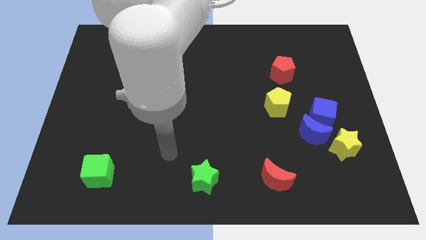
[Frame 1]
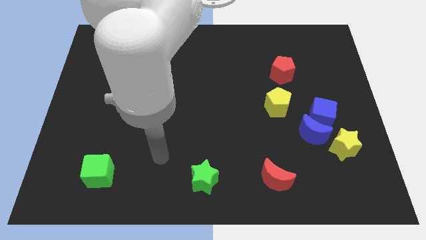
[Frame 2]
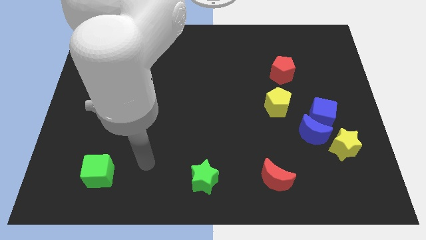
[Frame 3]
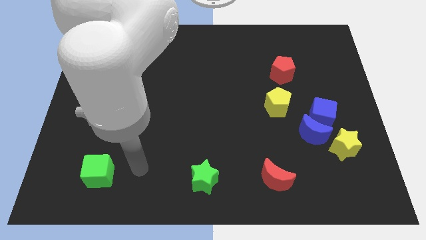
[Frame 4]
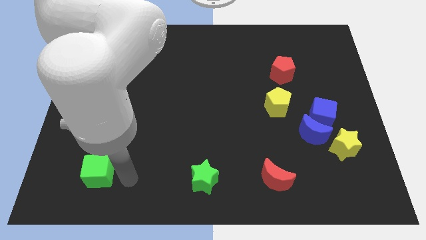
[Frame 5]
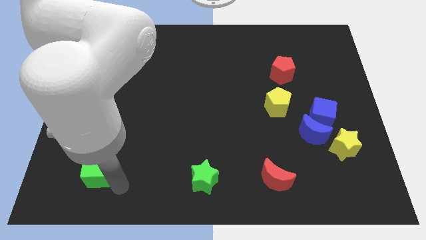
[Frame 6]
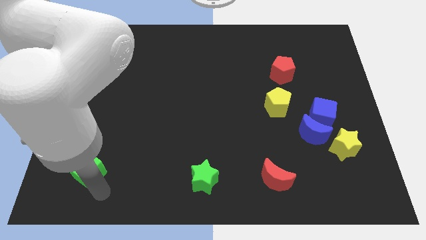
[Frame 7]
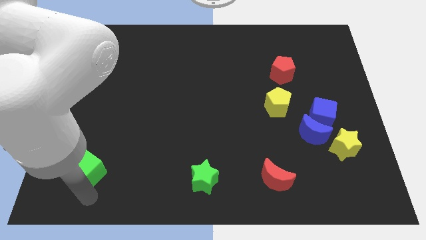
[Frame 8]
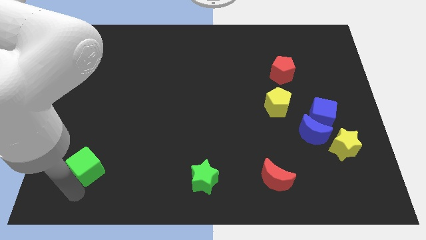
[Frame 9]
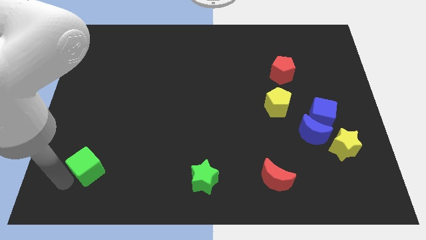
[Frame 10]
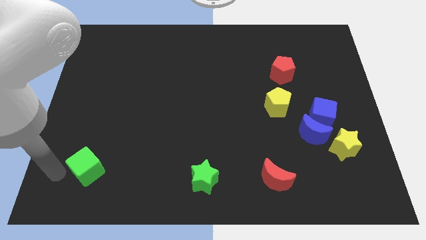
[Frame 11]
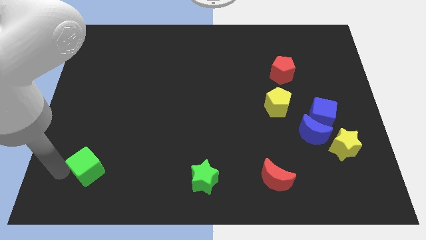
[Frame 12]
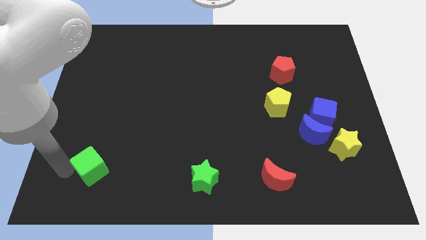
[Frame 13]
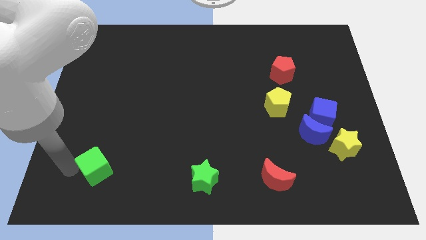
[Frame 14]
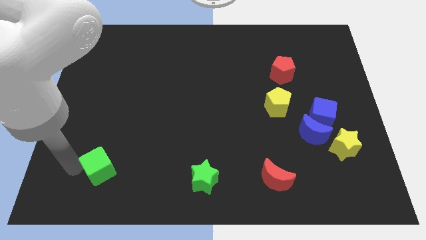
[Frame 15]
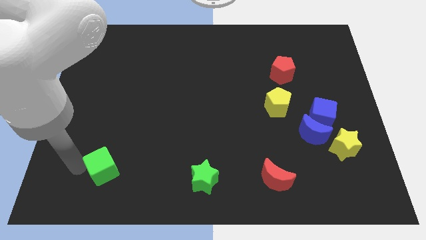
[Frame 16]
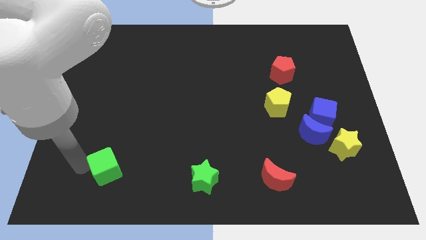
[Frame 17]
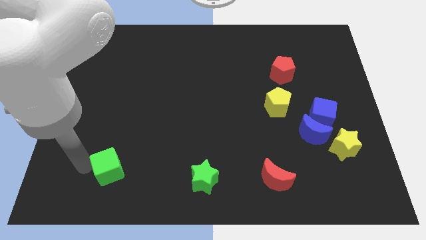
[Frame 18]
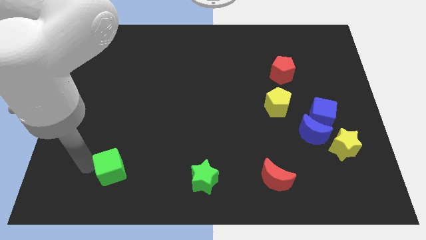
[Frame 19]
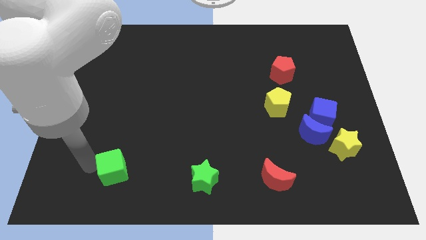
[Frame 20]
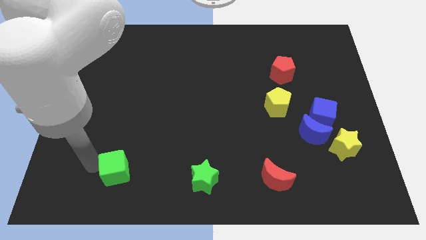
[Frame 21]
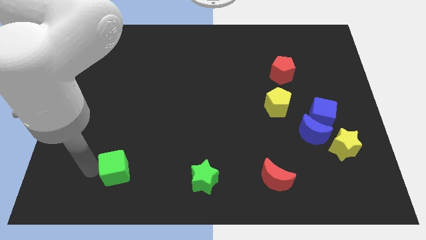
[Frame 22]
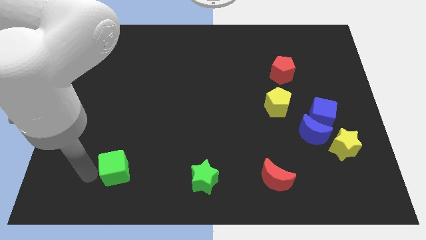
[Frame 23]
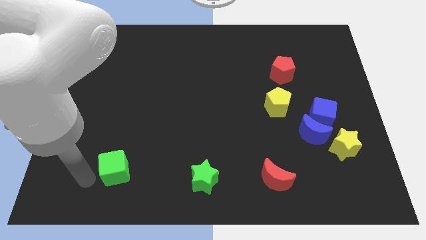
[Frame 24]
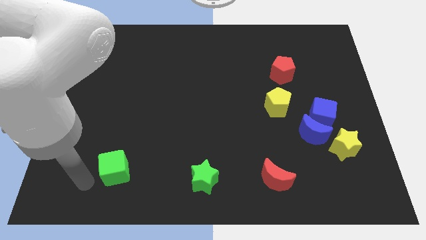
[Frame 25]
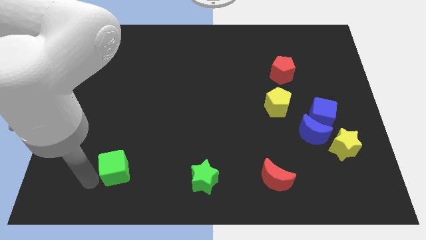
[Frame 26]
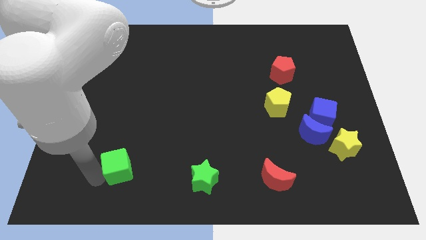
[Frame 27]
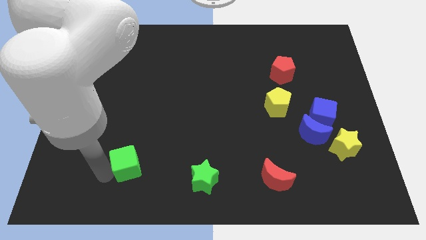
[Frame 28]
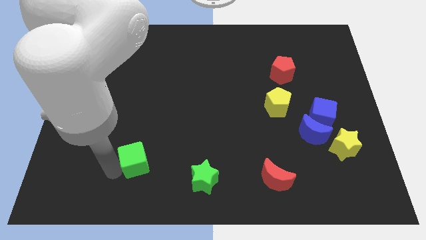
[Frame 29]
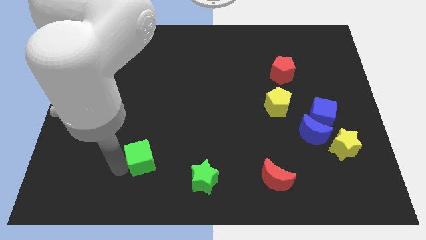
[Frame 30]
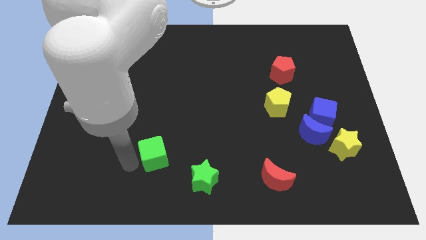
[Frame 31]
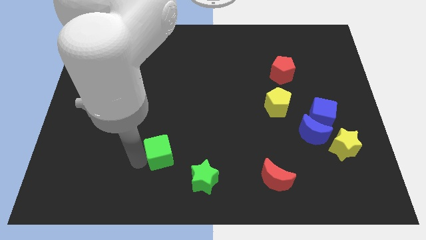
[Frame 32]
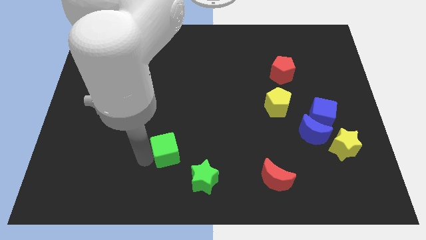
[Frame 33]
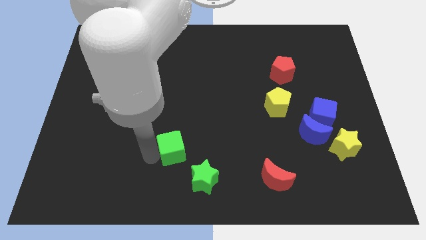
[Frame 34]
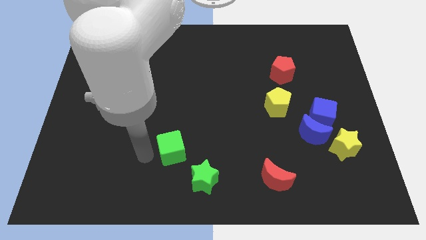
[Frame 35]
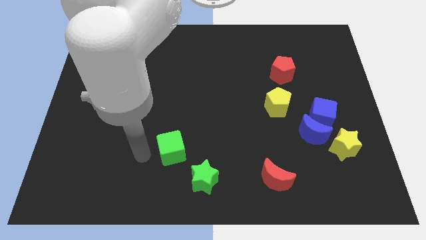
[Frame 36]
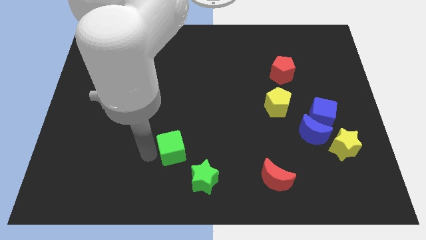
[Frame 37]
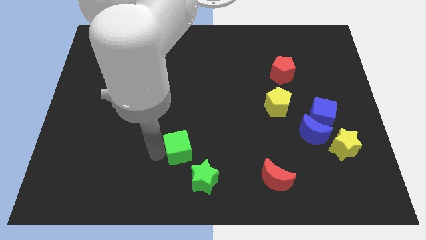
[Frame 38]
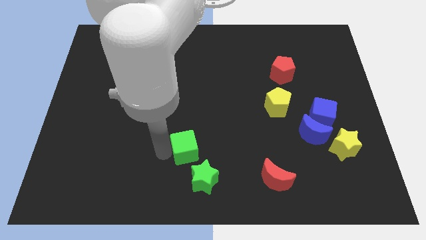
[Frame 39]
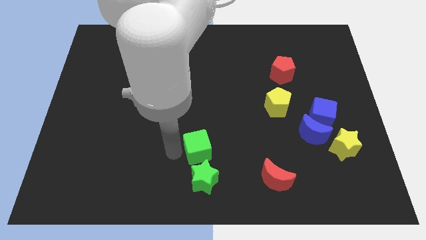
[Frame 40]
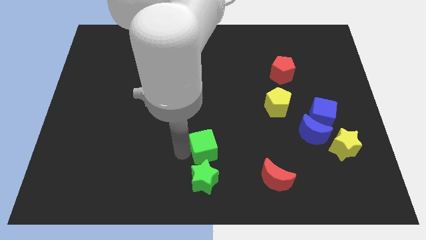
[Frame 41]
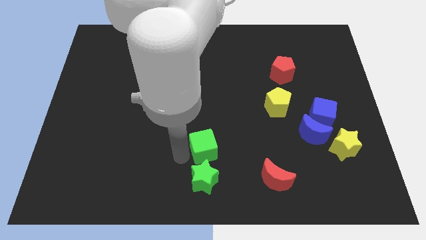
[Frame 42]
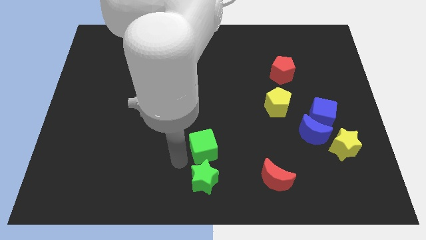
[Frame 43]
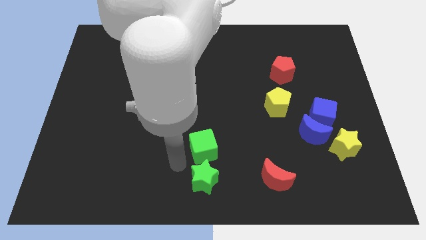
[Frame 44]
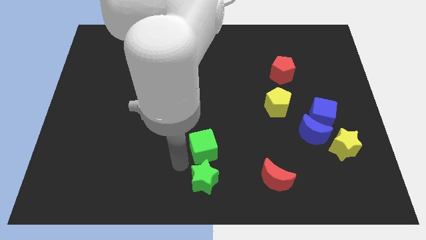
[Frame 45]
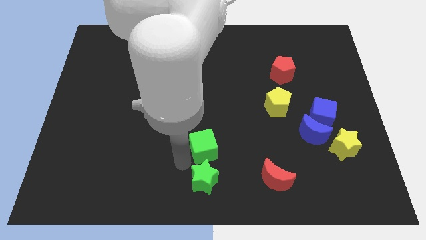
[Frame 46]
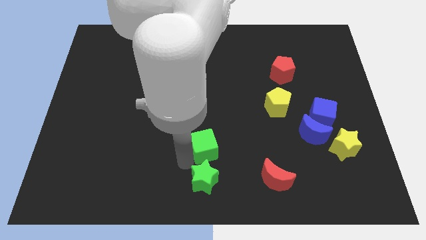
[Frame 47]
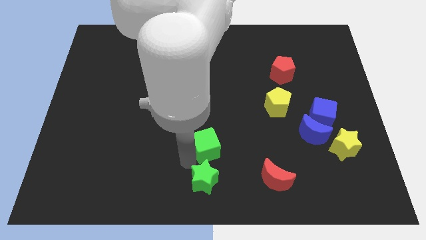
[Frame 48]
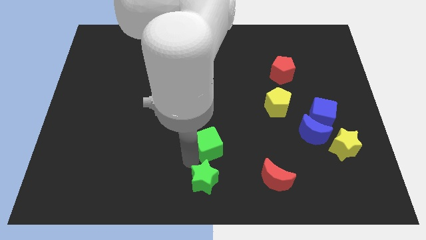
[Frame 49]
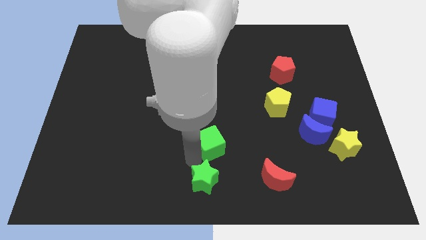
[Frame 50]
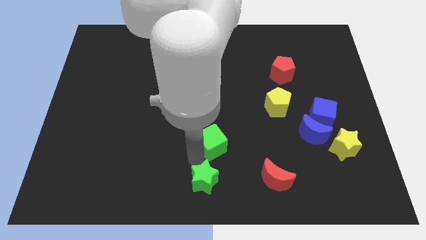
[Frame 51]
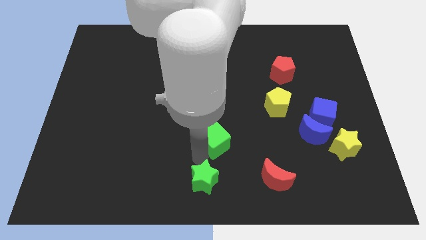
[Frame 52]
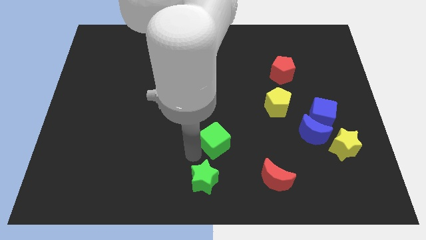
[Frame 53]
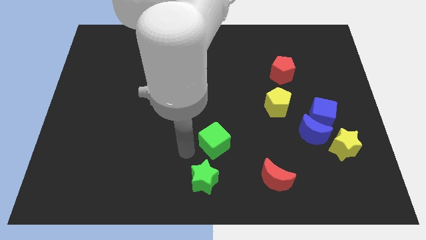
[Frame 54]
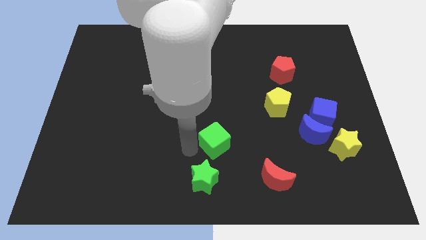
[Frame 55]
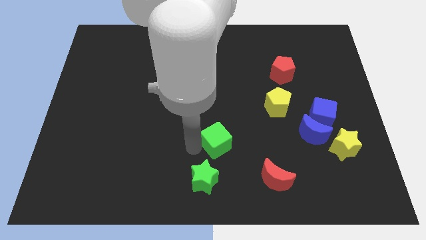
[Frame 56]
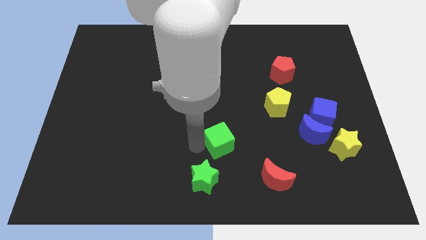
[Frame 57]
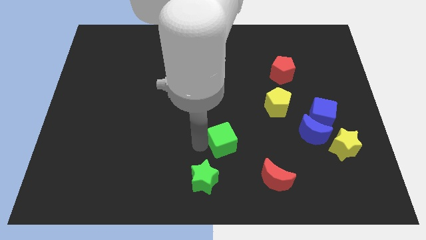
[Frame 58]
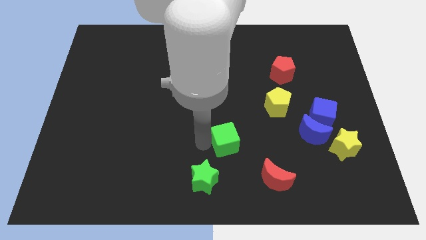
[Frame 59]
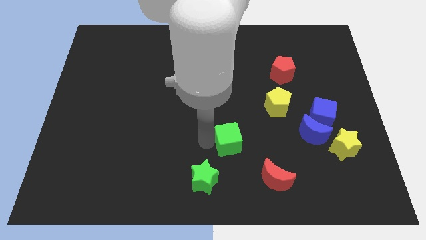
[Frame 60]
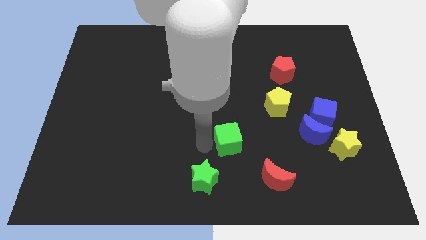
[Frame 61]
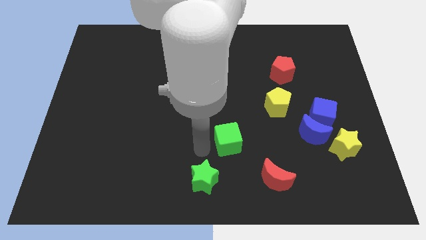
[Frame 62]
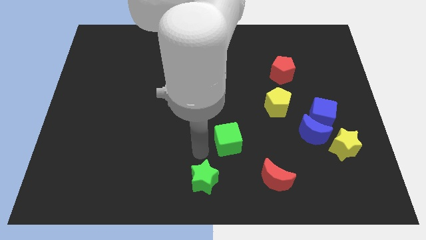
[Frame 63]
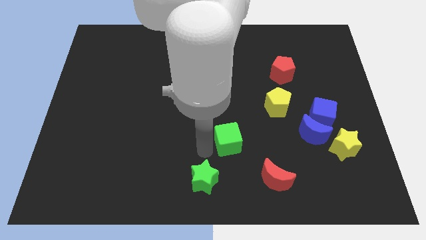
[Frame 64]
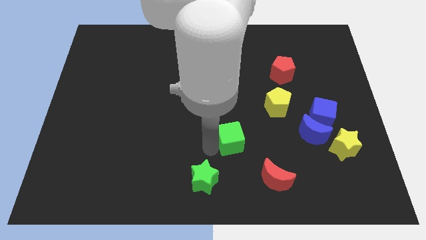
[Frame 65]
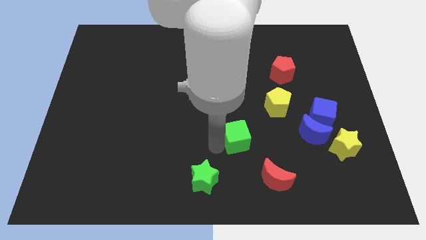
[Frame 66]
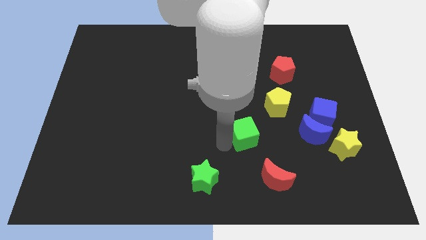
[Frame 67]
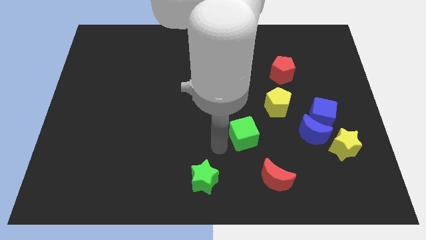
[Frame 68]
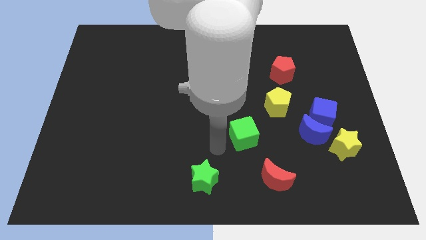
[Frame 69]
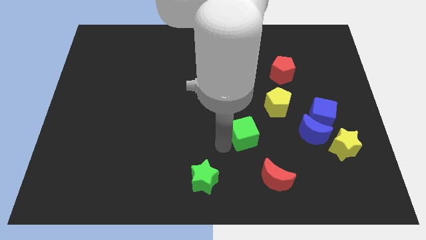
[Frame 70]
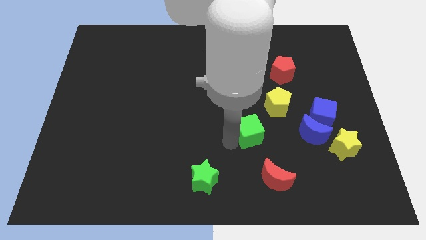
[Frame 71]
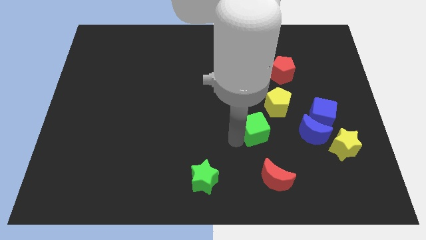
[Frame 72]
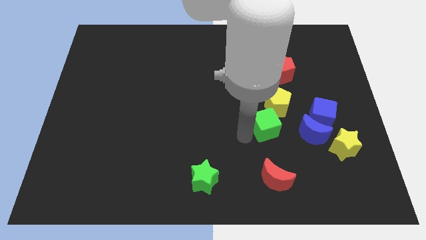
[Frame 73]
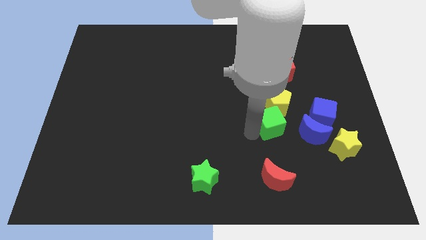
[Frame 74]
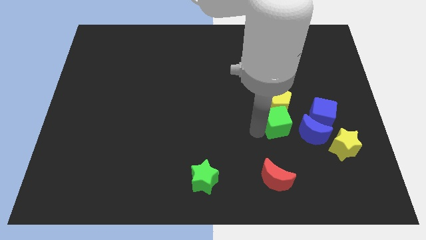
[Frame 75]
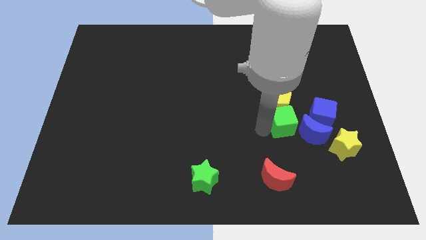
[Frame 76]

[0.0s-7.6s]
put the green cube below the red pentagon
